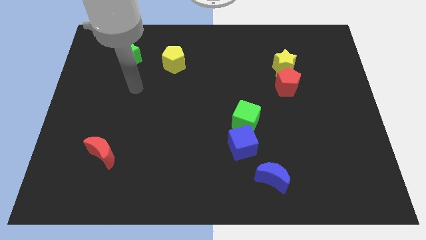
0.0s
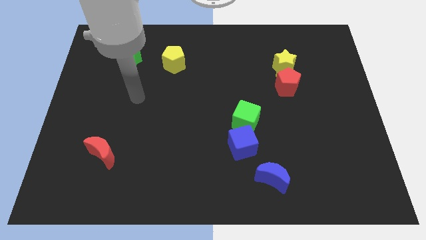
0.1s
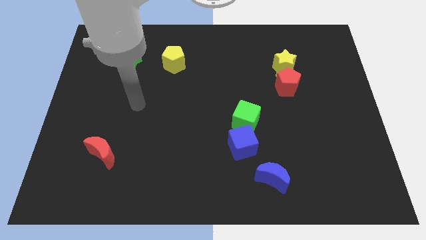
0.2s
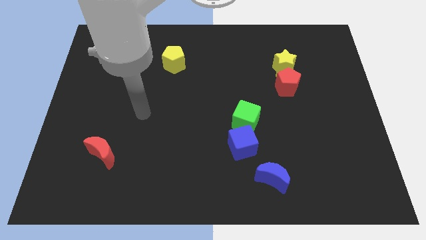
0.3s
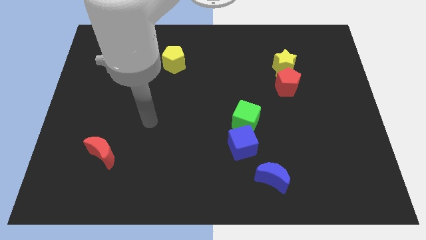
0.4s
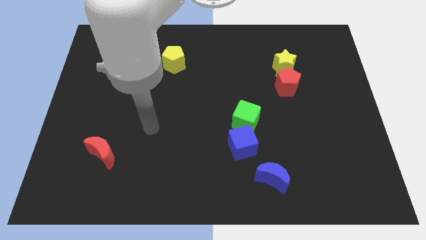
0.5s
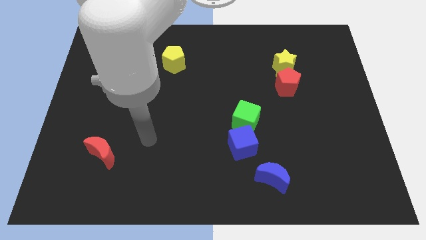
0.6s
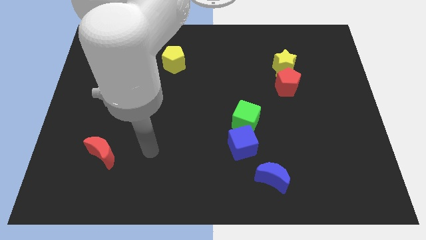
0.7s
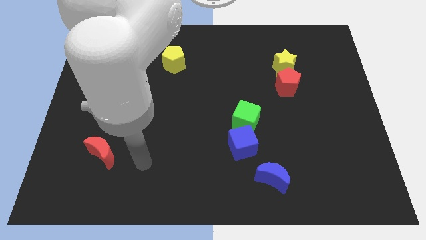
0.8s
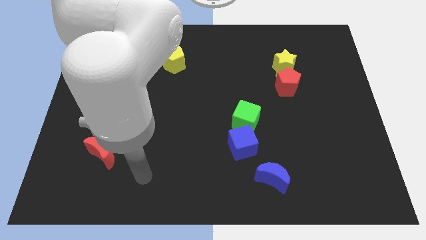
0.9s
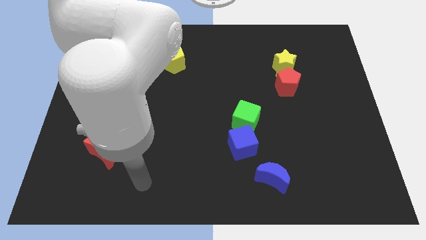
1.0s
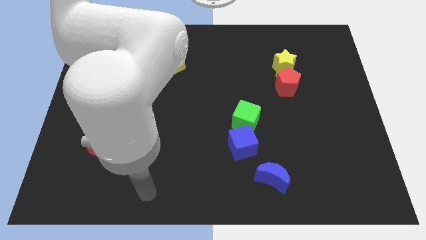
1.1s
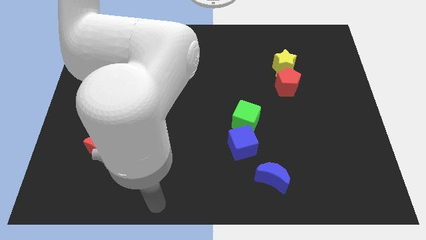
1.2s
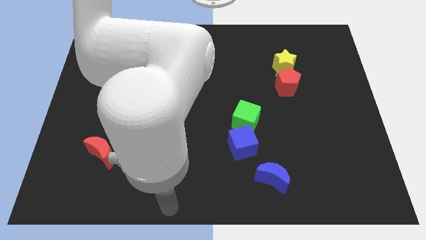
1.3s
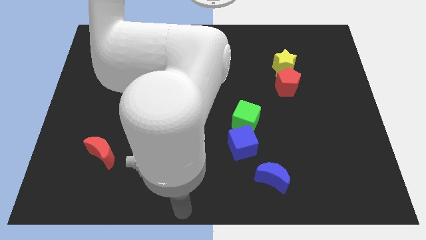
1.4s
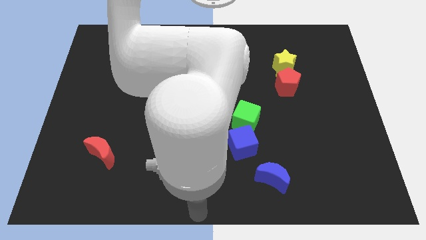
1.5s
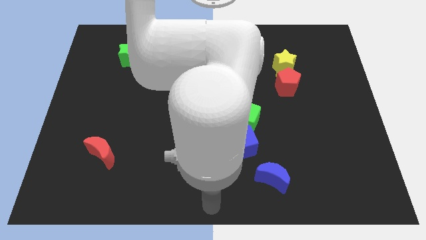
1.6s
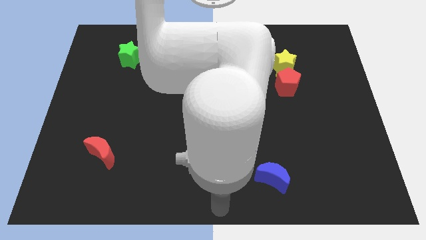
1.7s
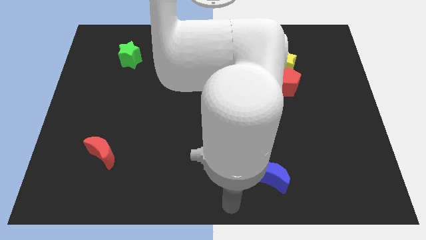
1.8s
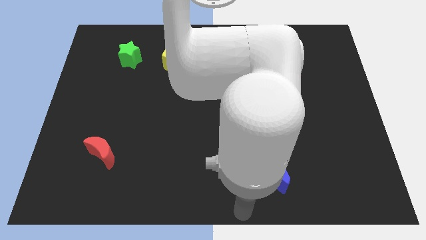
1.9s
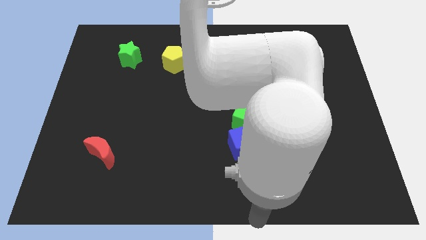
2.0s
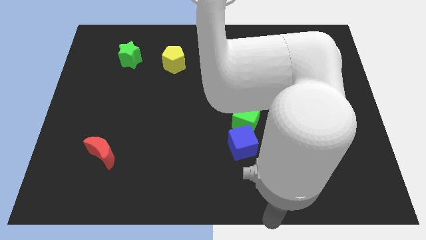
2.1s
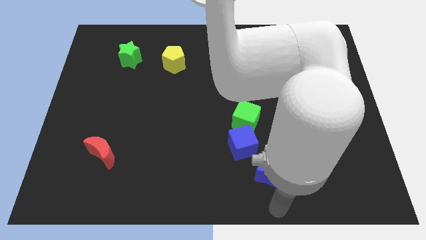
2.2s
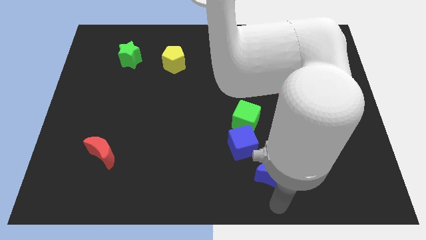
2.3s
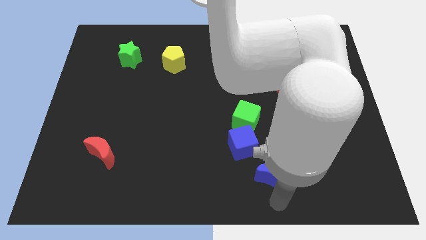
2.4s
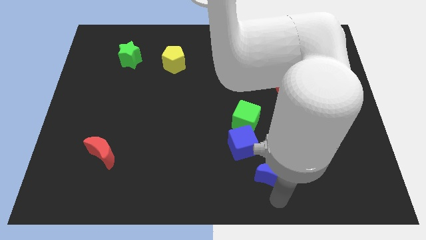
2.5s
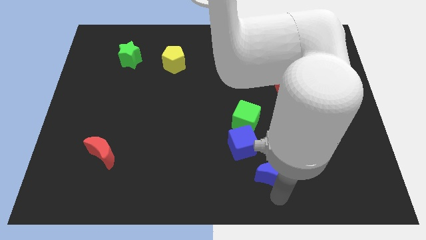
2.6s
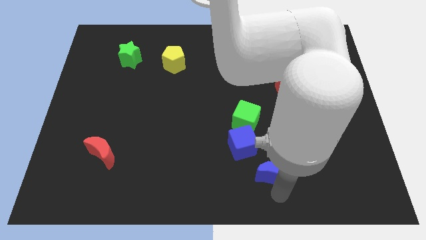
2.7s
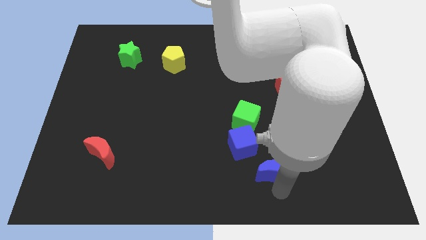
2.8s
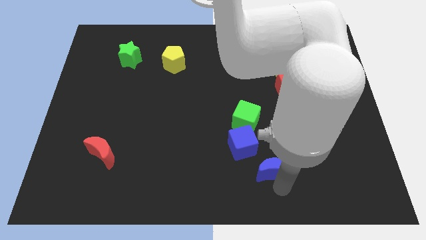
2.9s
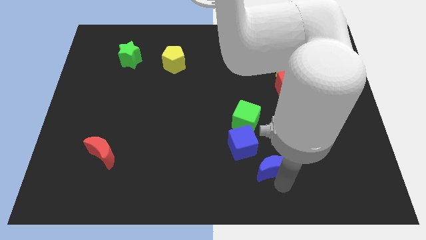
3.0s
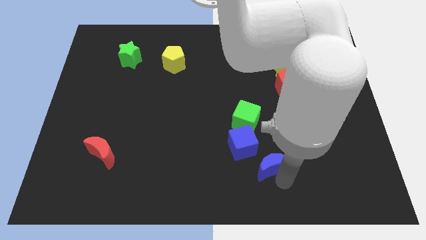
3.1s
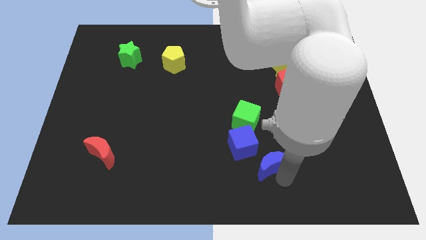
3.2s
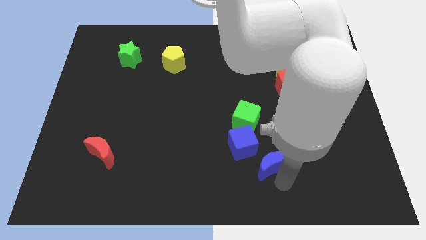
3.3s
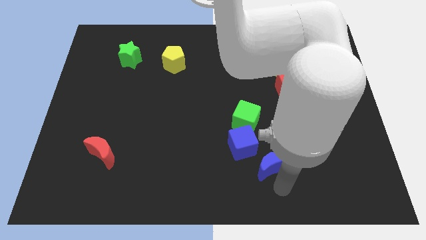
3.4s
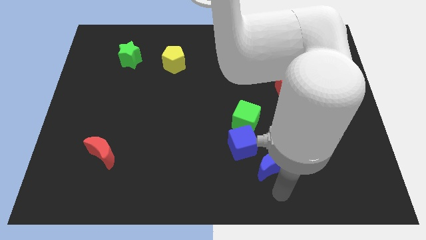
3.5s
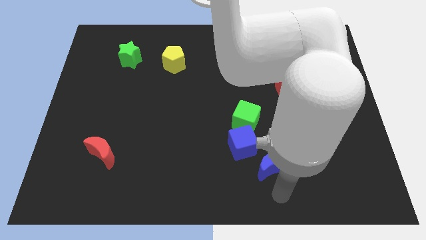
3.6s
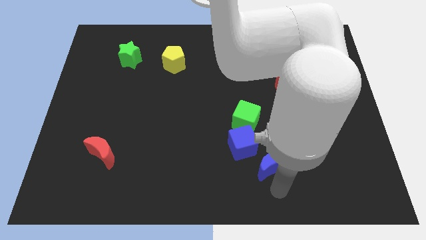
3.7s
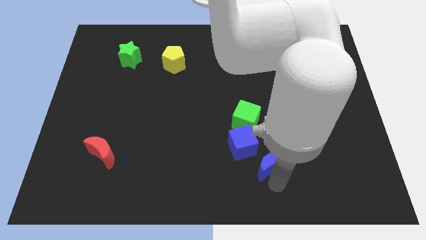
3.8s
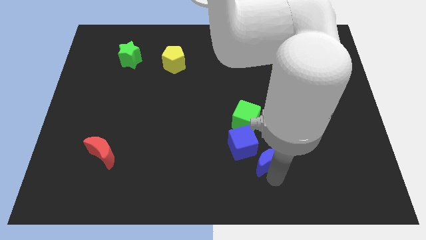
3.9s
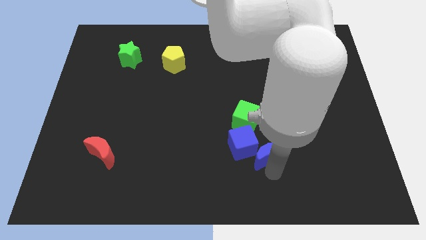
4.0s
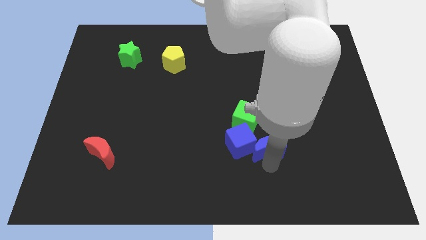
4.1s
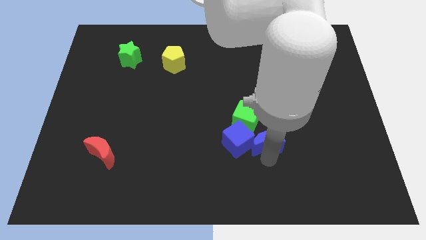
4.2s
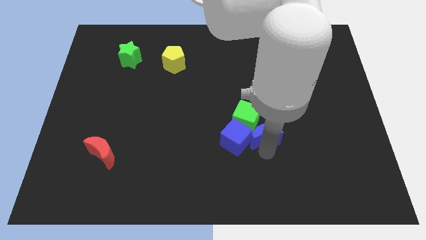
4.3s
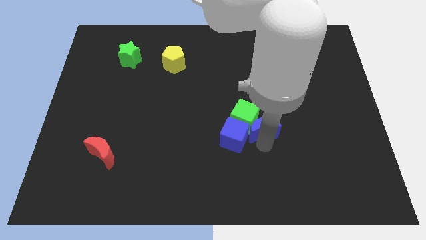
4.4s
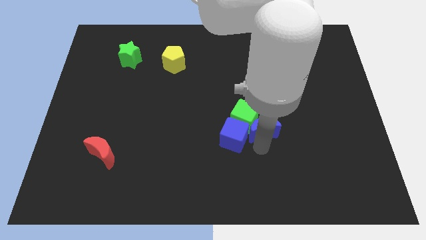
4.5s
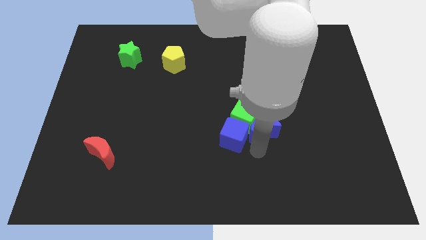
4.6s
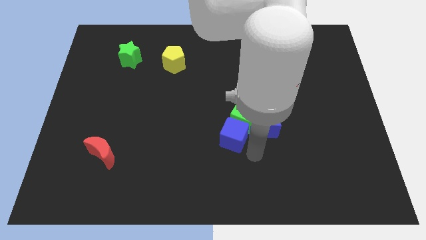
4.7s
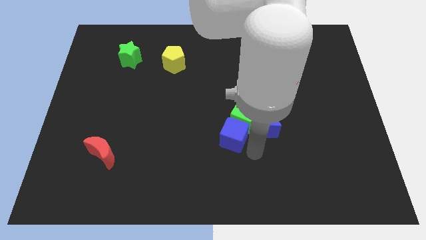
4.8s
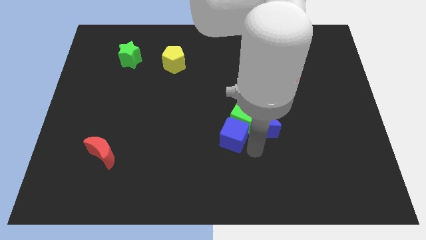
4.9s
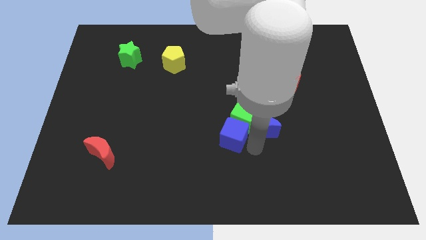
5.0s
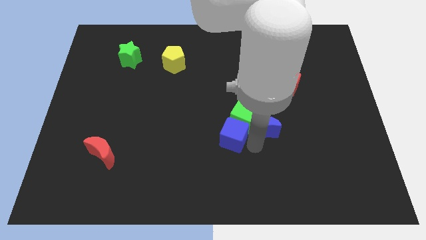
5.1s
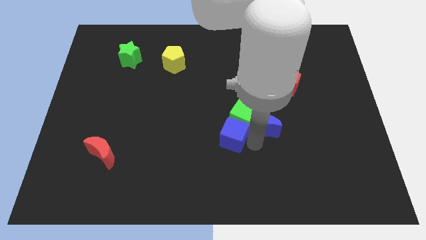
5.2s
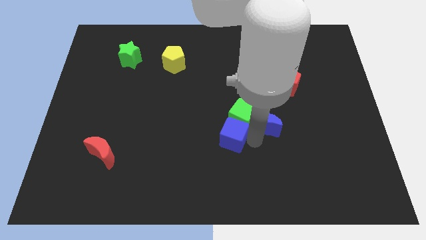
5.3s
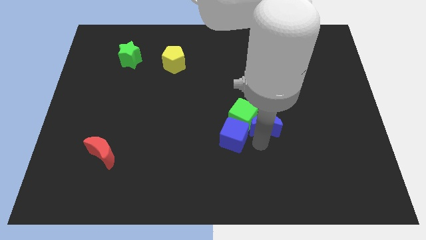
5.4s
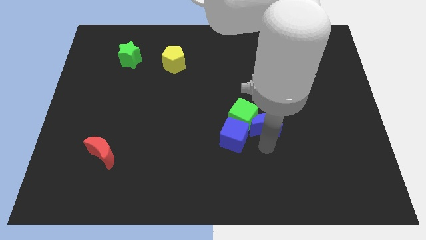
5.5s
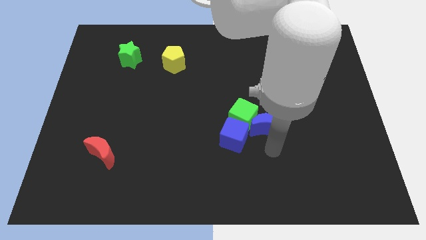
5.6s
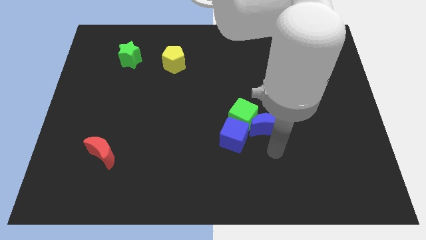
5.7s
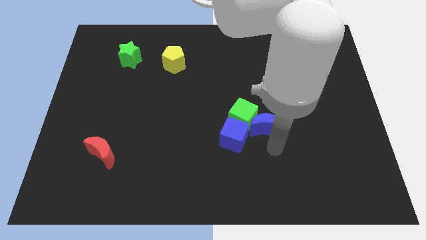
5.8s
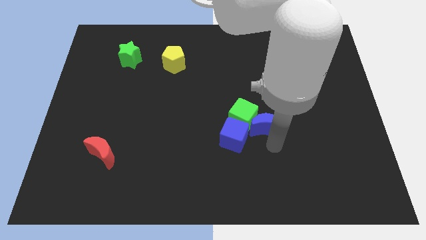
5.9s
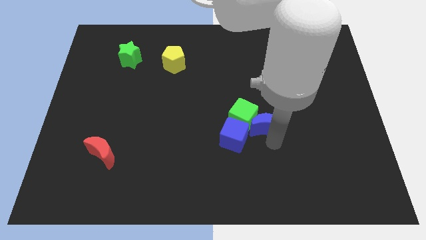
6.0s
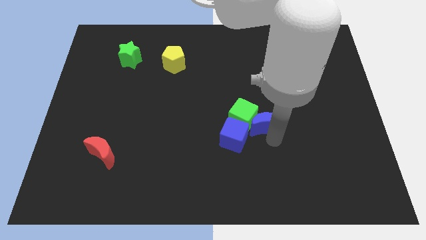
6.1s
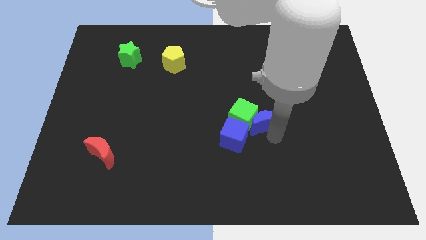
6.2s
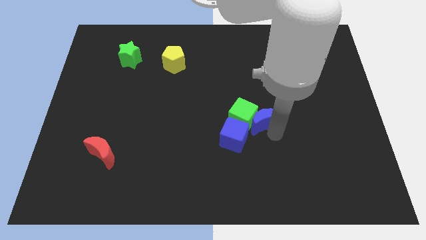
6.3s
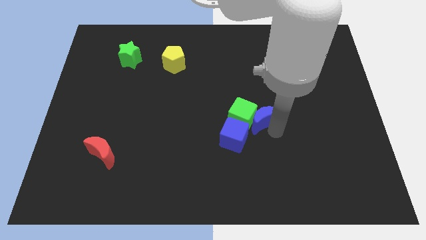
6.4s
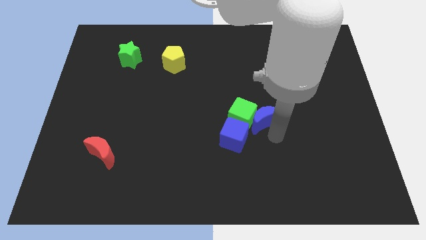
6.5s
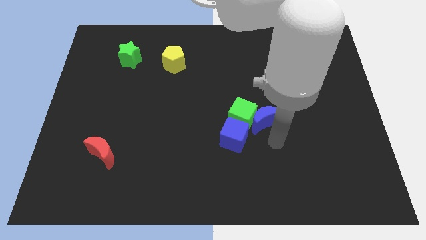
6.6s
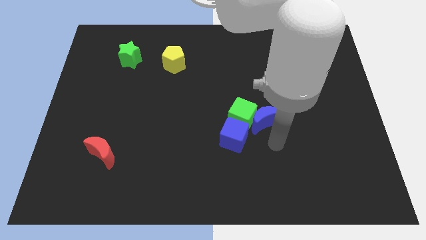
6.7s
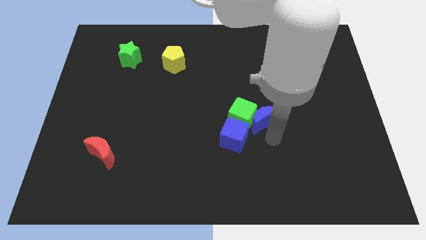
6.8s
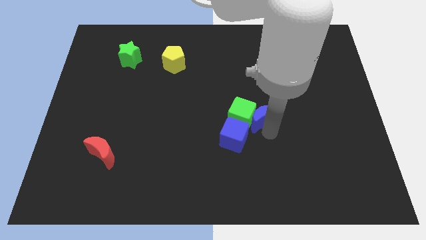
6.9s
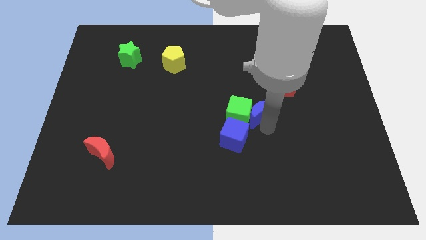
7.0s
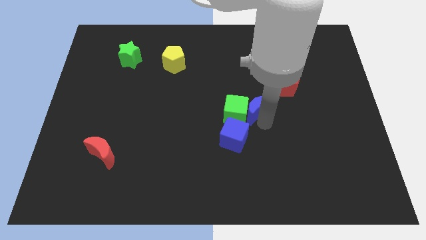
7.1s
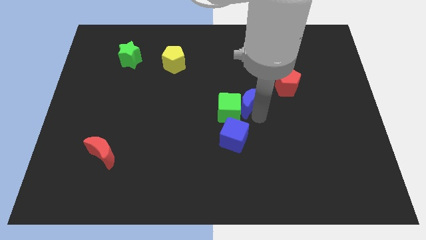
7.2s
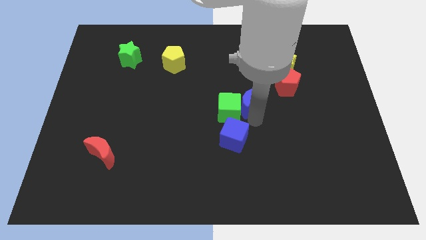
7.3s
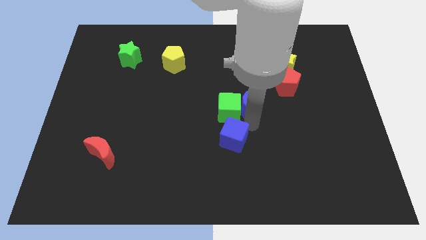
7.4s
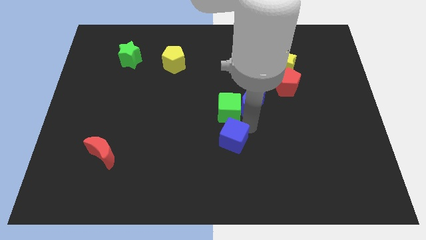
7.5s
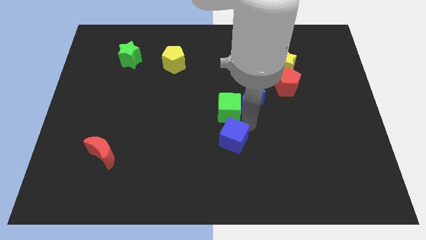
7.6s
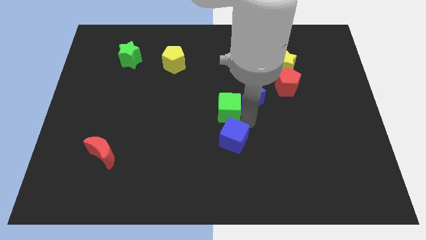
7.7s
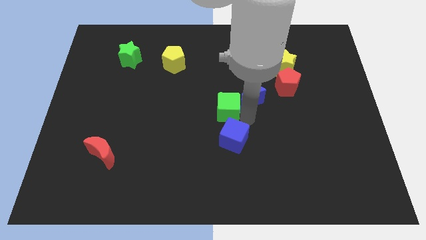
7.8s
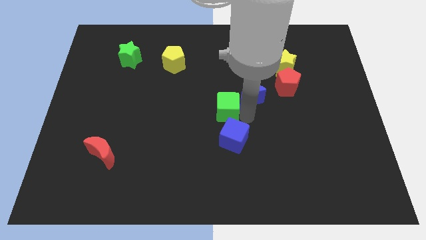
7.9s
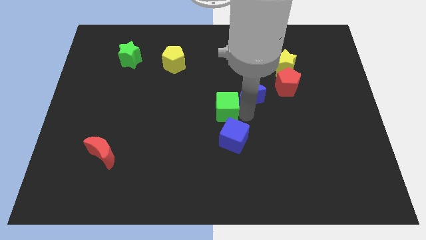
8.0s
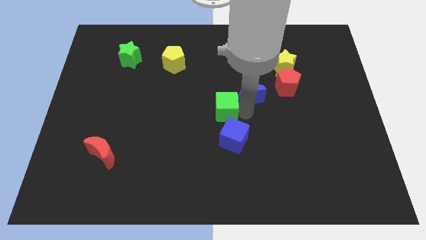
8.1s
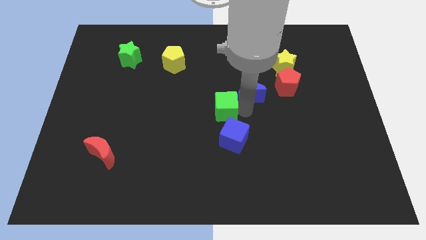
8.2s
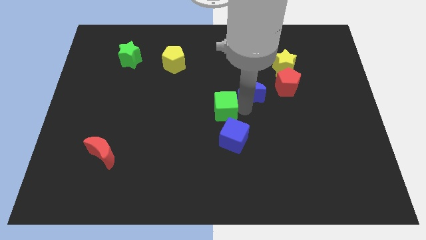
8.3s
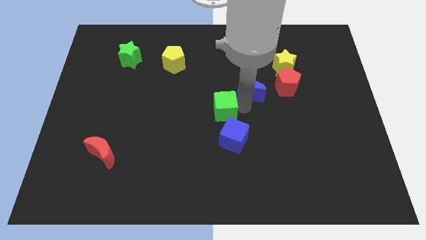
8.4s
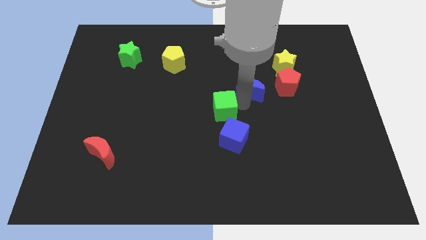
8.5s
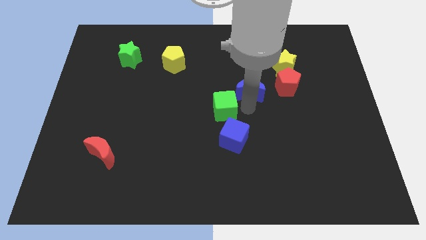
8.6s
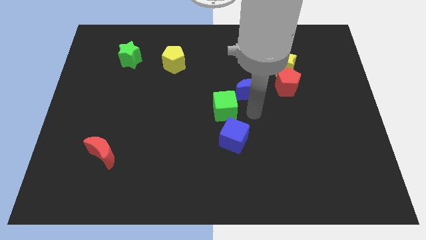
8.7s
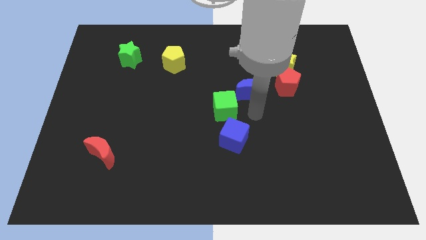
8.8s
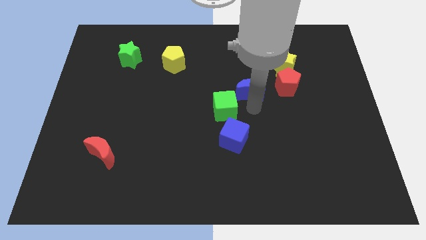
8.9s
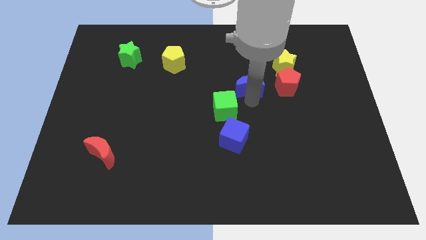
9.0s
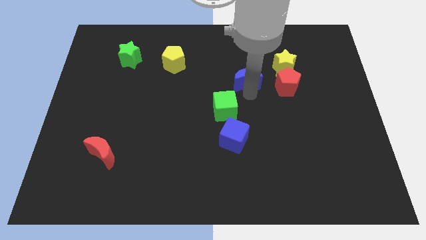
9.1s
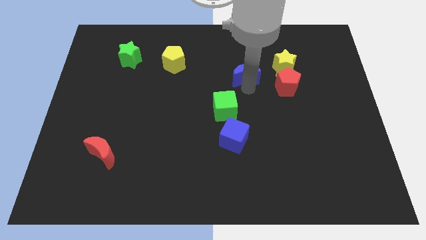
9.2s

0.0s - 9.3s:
put the blue moon left of the yellow star
